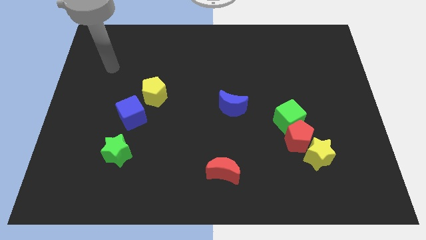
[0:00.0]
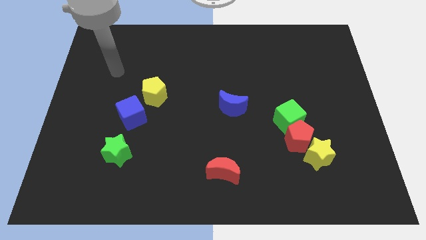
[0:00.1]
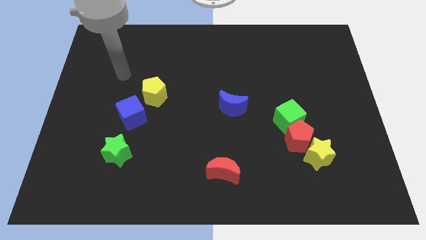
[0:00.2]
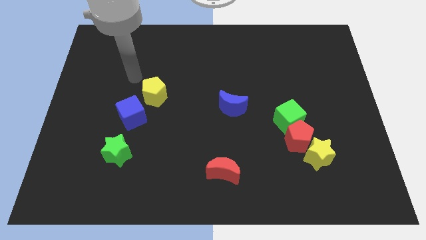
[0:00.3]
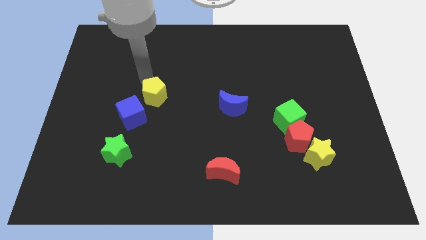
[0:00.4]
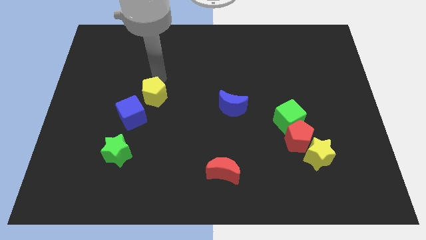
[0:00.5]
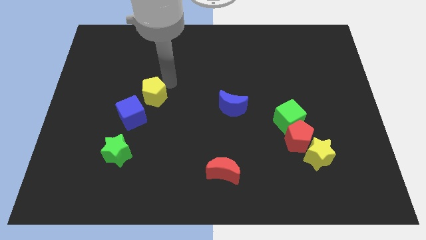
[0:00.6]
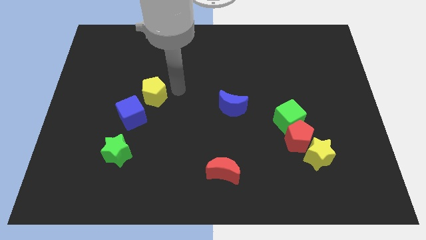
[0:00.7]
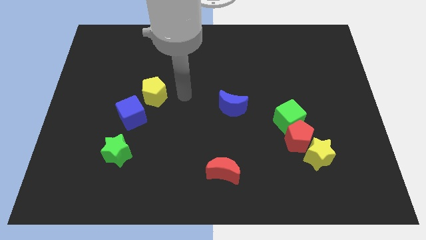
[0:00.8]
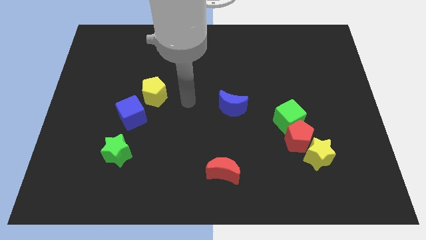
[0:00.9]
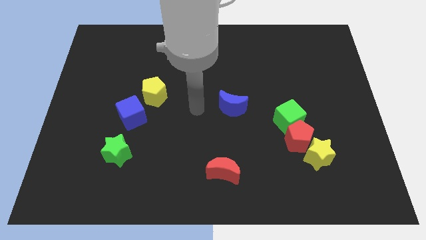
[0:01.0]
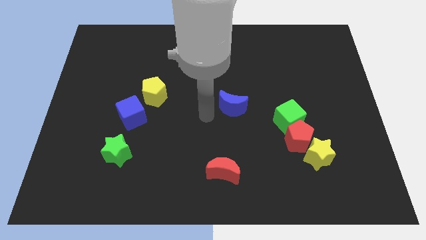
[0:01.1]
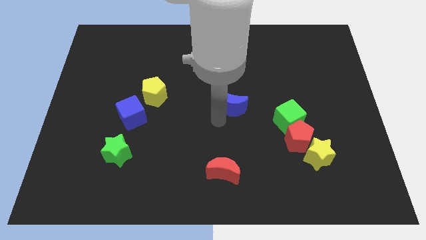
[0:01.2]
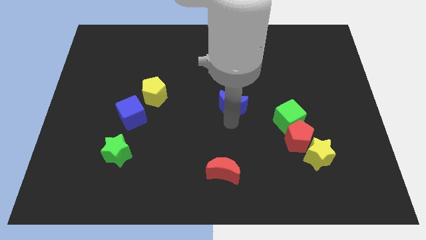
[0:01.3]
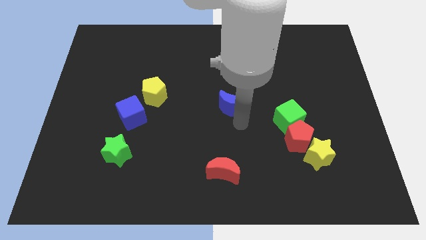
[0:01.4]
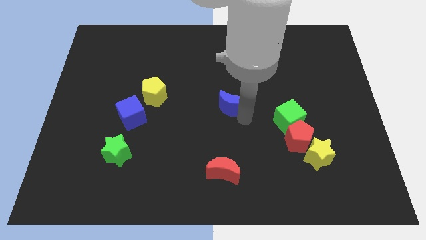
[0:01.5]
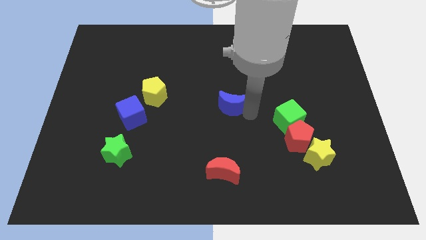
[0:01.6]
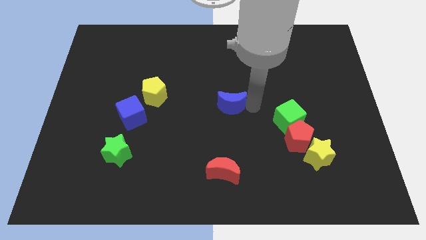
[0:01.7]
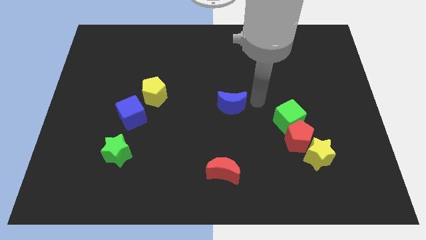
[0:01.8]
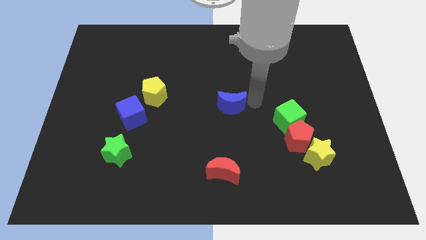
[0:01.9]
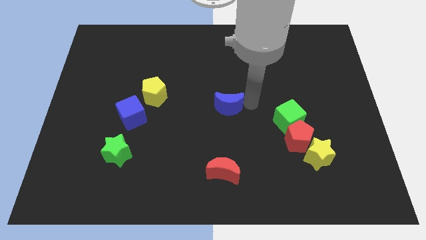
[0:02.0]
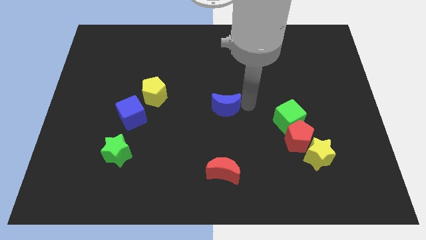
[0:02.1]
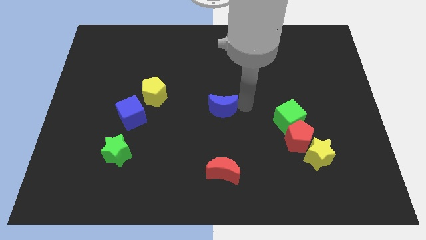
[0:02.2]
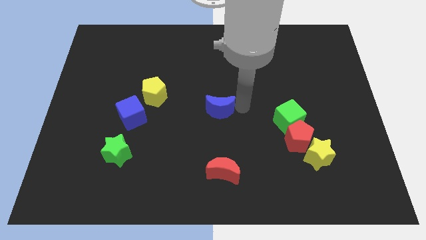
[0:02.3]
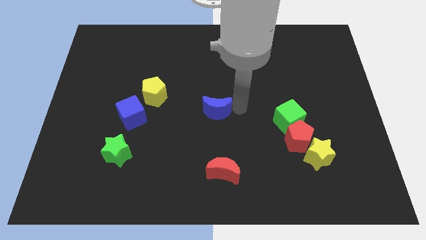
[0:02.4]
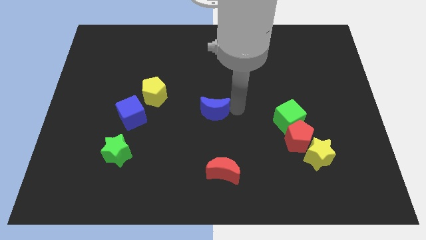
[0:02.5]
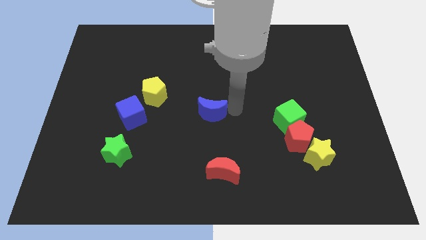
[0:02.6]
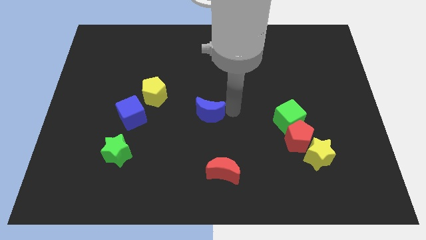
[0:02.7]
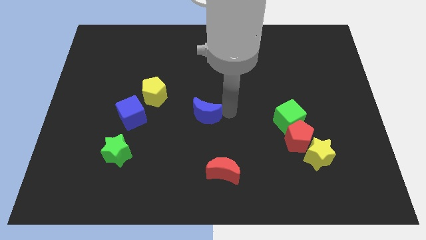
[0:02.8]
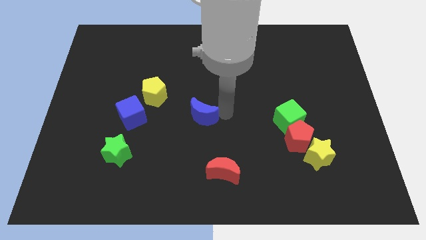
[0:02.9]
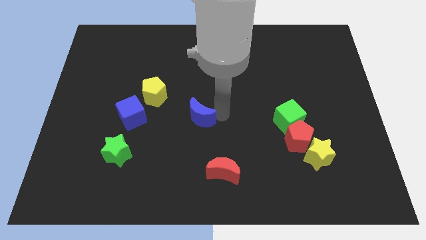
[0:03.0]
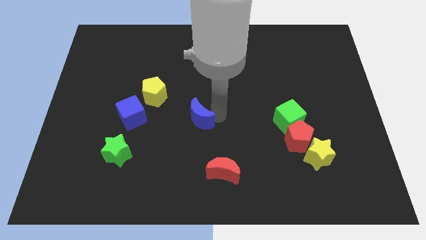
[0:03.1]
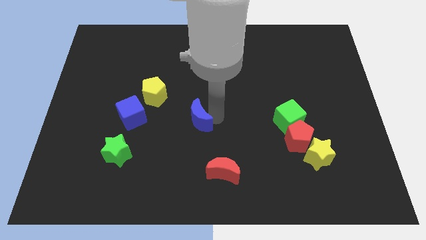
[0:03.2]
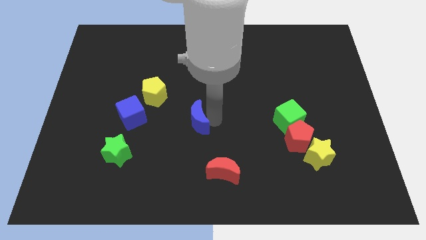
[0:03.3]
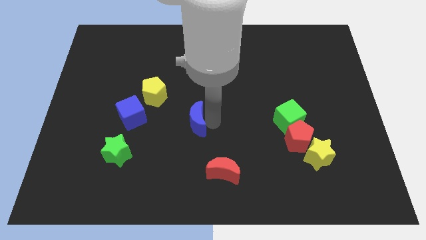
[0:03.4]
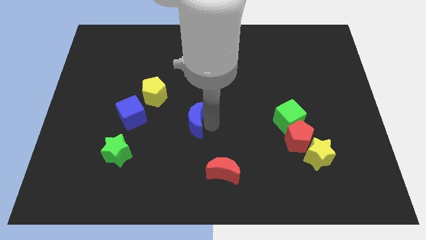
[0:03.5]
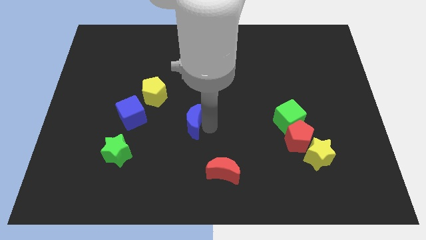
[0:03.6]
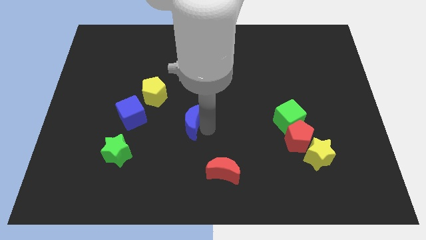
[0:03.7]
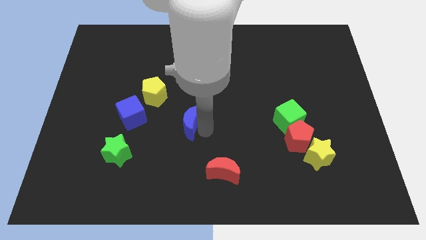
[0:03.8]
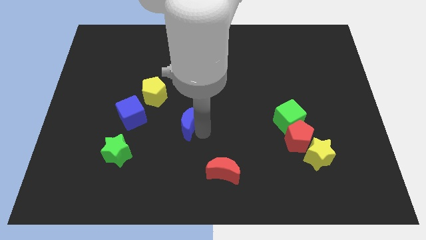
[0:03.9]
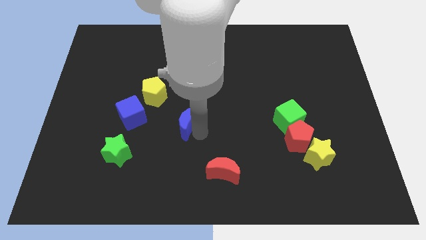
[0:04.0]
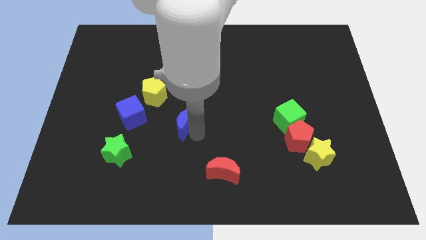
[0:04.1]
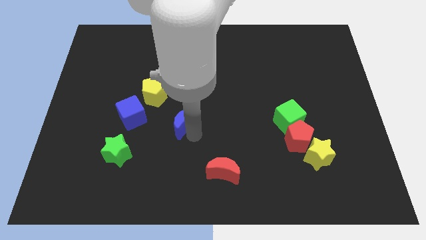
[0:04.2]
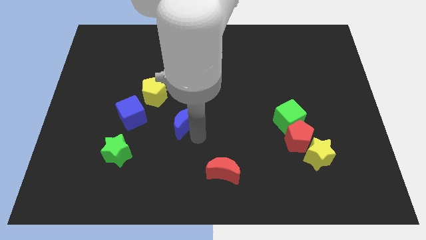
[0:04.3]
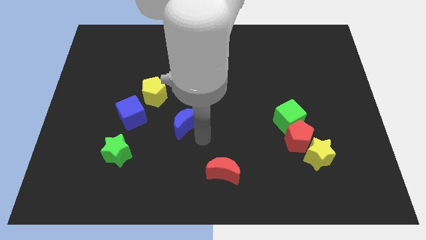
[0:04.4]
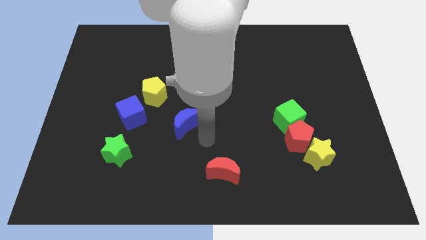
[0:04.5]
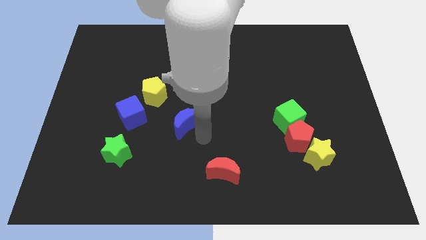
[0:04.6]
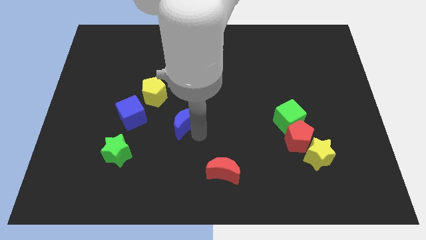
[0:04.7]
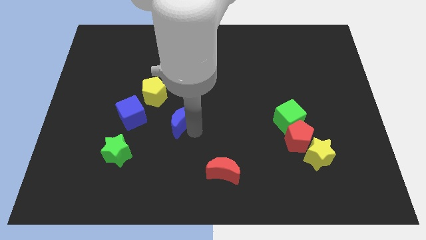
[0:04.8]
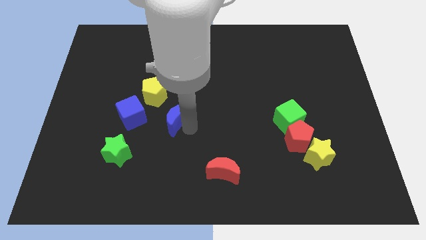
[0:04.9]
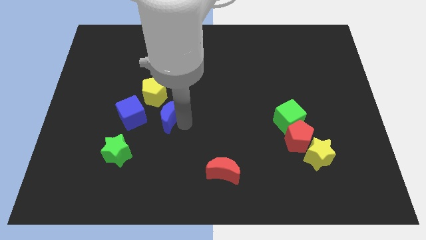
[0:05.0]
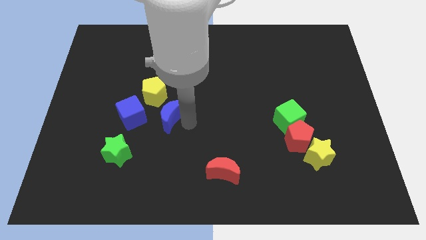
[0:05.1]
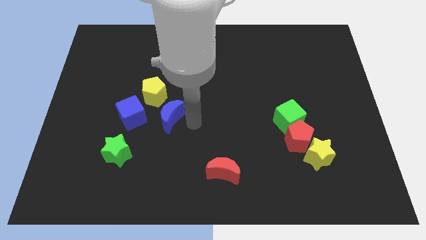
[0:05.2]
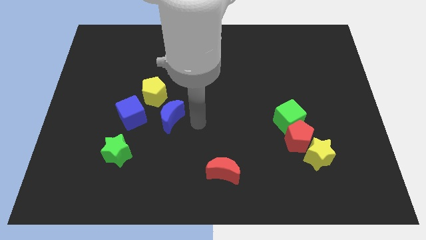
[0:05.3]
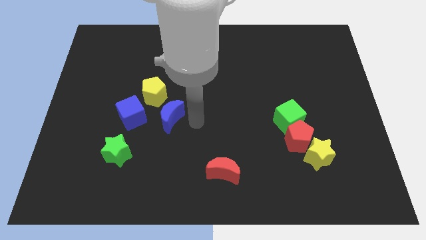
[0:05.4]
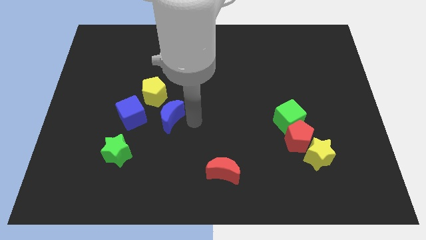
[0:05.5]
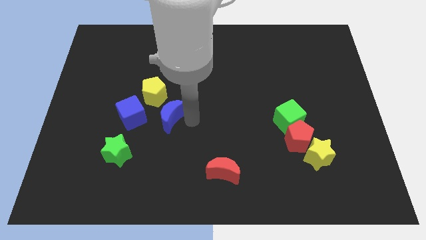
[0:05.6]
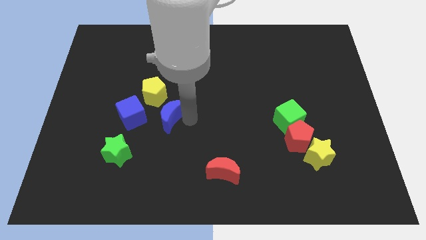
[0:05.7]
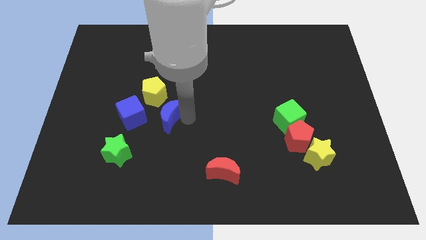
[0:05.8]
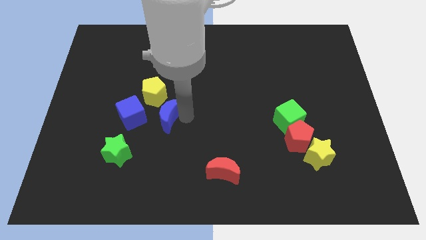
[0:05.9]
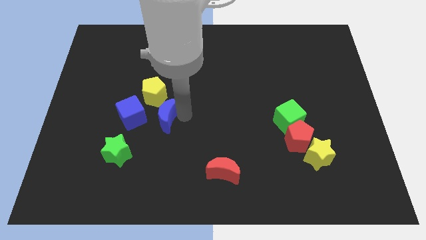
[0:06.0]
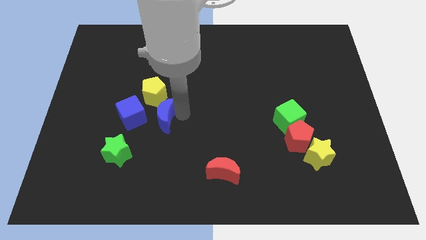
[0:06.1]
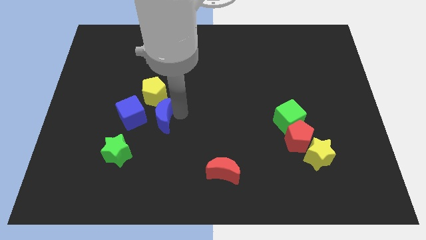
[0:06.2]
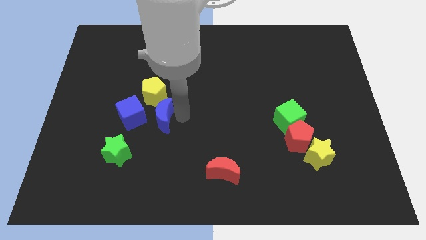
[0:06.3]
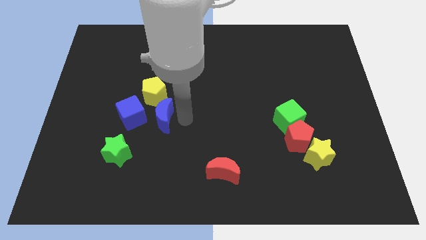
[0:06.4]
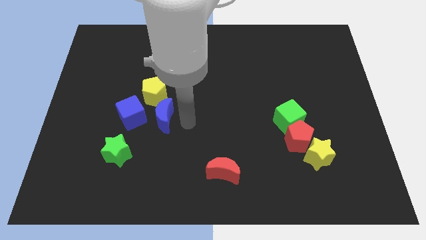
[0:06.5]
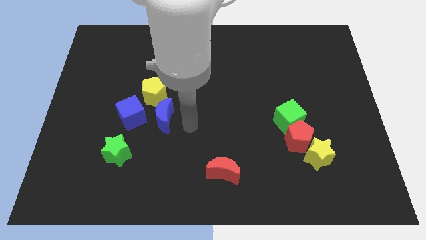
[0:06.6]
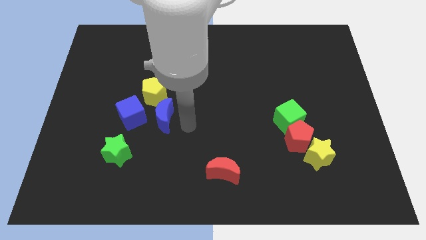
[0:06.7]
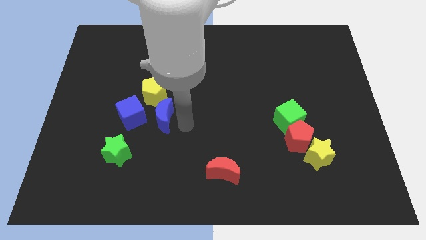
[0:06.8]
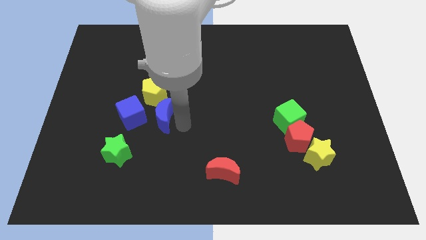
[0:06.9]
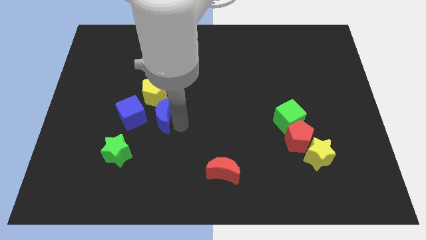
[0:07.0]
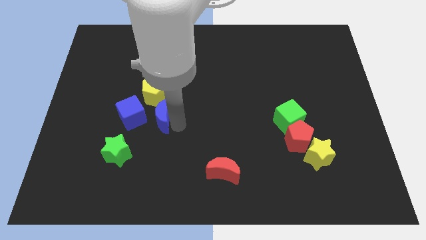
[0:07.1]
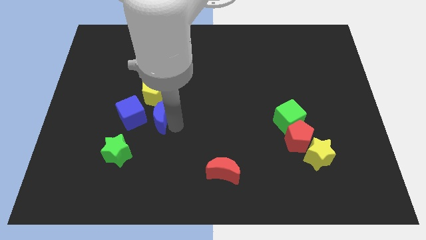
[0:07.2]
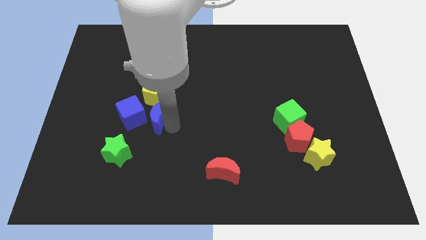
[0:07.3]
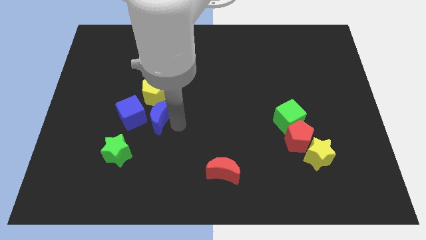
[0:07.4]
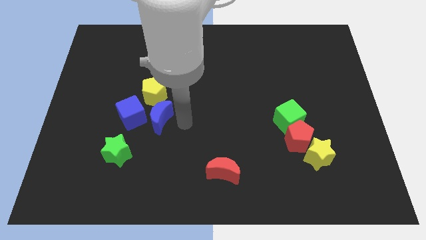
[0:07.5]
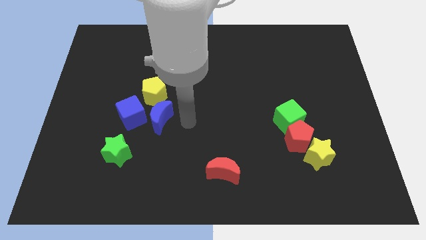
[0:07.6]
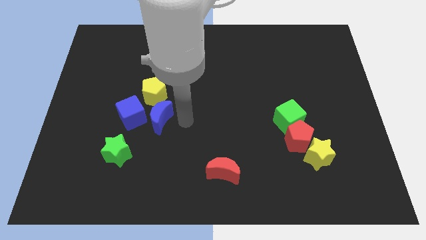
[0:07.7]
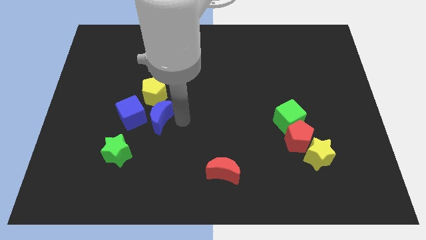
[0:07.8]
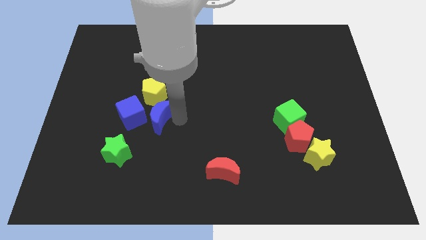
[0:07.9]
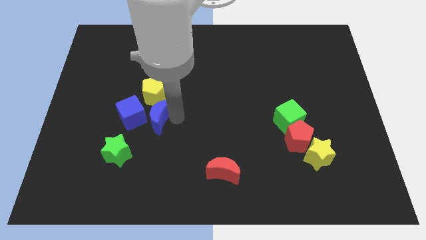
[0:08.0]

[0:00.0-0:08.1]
push the blue moon towards the blue cube
